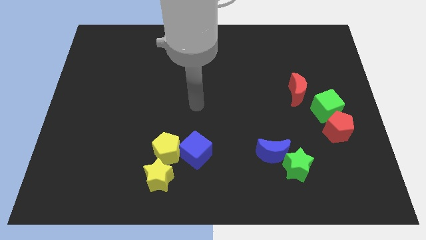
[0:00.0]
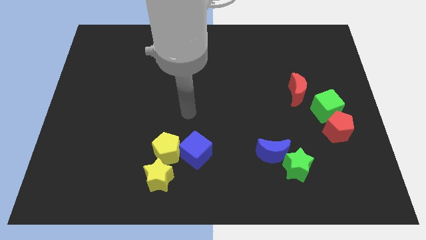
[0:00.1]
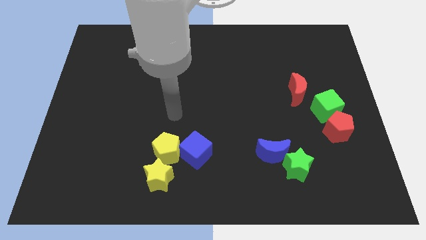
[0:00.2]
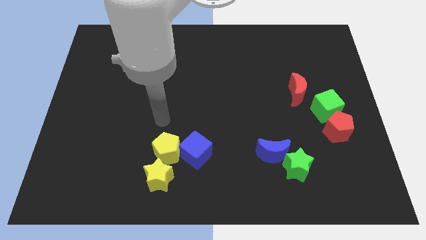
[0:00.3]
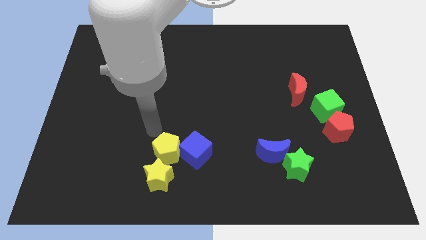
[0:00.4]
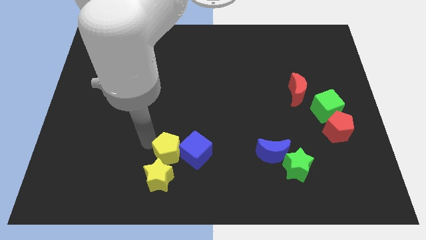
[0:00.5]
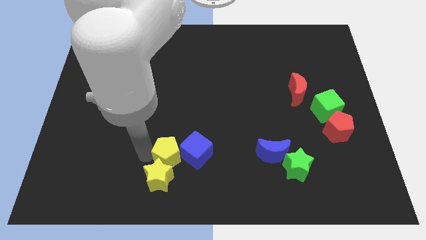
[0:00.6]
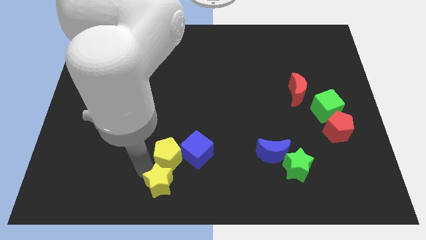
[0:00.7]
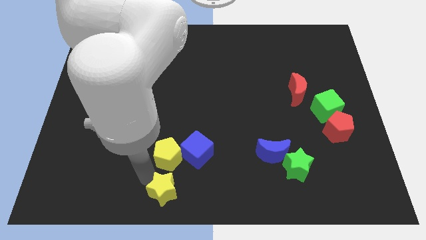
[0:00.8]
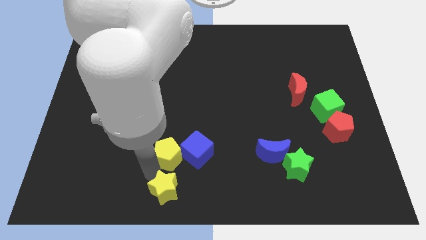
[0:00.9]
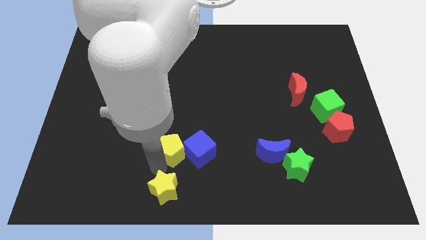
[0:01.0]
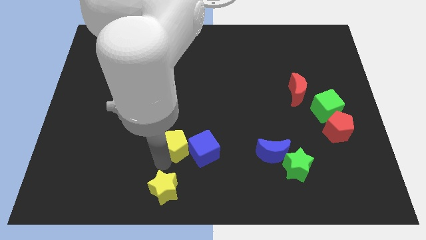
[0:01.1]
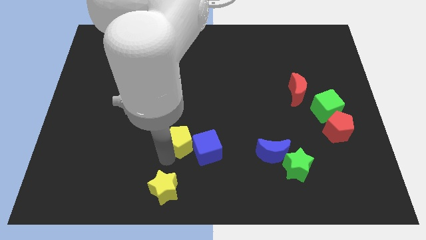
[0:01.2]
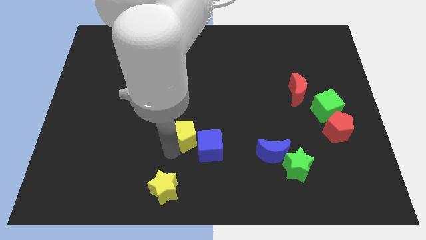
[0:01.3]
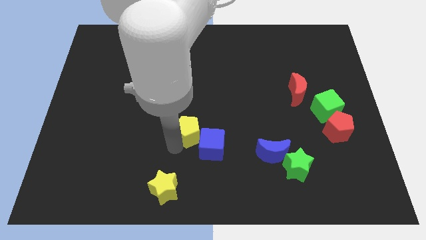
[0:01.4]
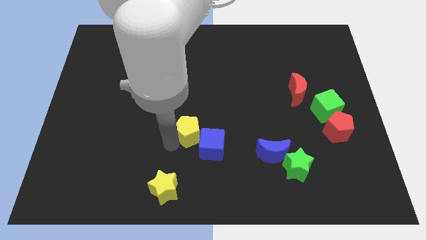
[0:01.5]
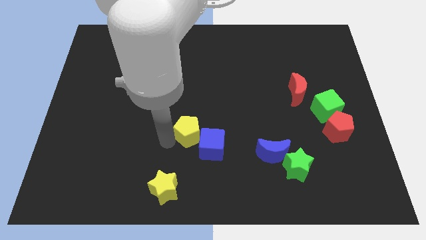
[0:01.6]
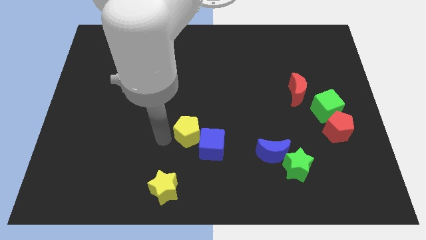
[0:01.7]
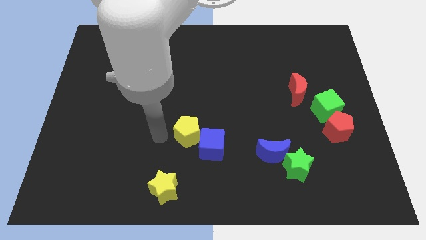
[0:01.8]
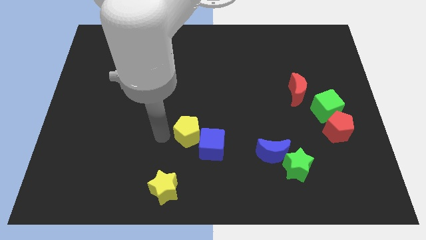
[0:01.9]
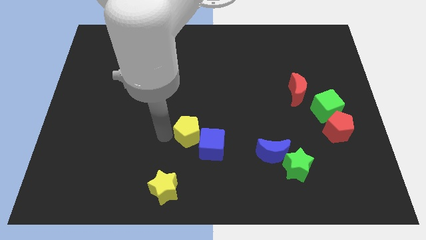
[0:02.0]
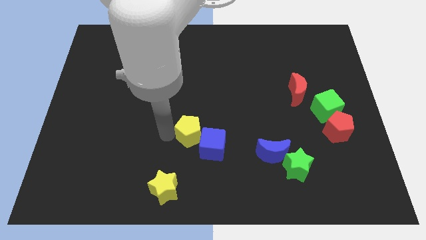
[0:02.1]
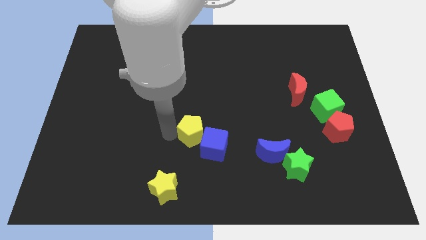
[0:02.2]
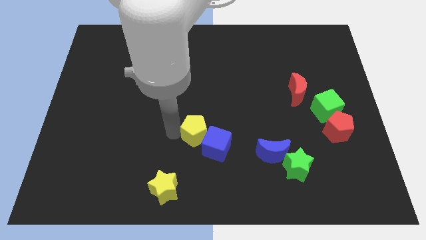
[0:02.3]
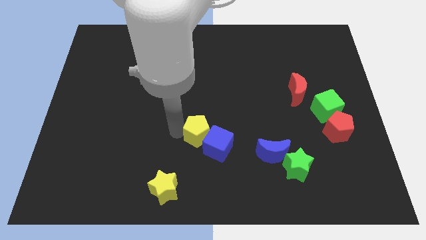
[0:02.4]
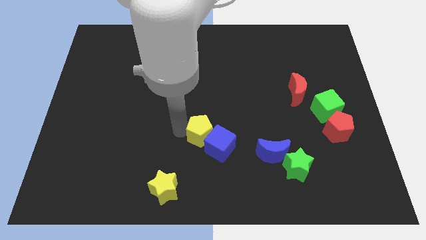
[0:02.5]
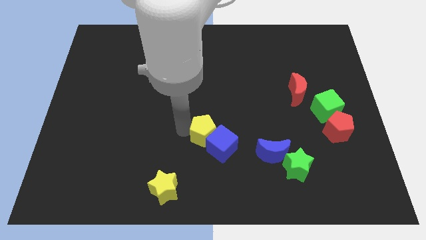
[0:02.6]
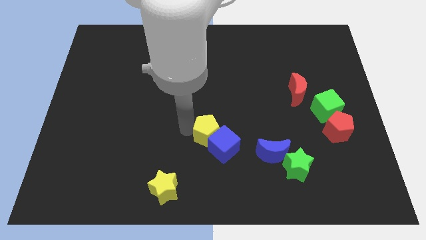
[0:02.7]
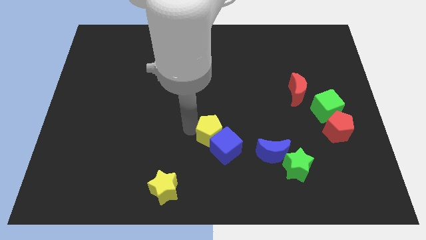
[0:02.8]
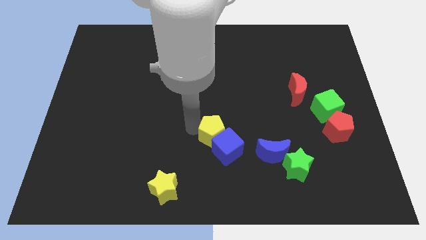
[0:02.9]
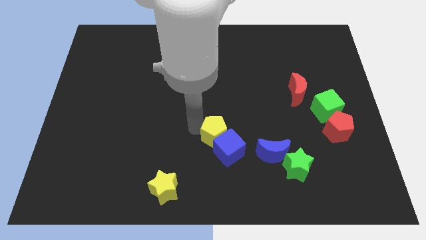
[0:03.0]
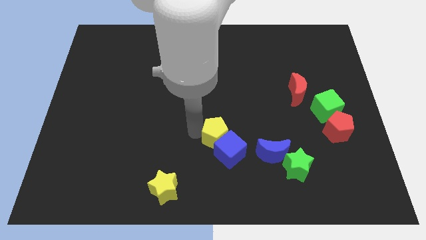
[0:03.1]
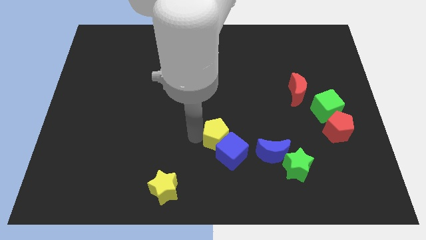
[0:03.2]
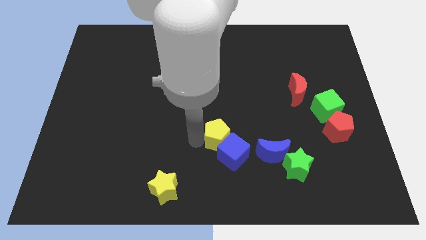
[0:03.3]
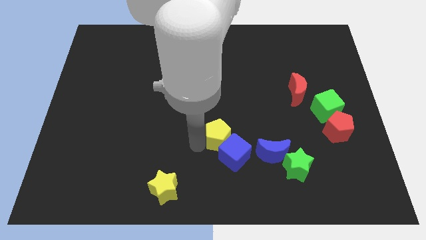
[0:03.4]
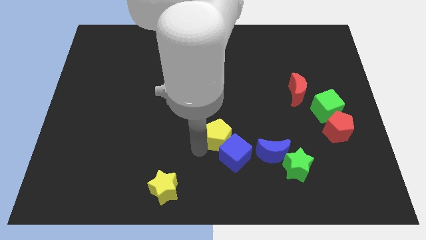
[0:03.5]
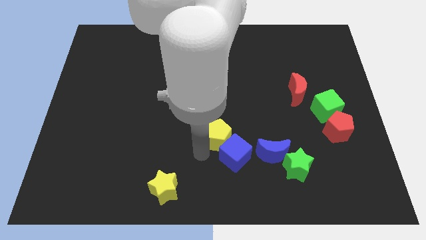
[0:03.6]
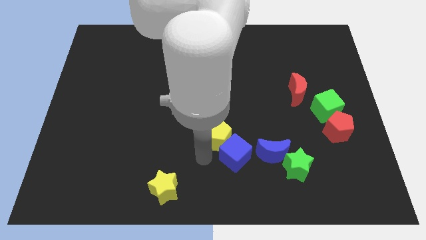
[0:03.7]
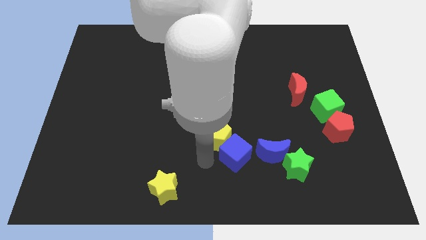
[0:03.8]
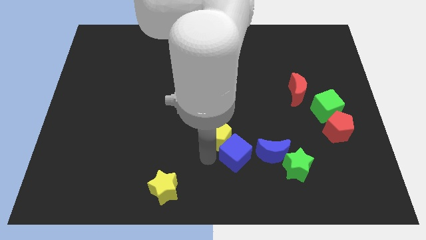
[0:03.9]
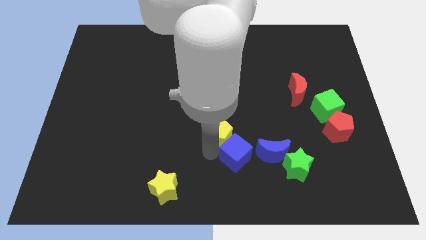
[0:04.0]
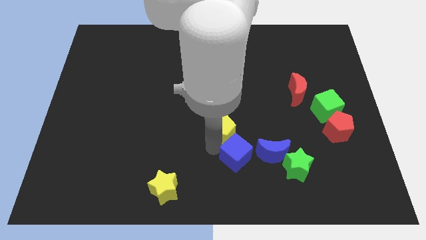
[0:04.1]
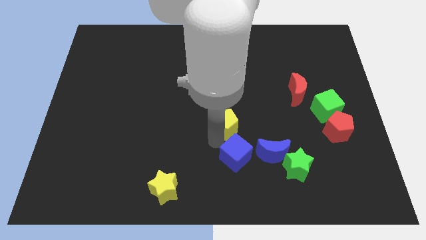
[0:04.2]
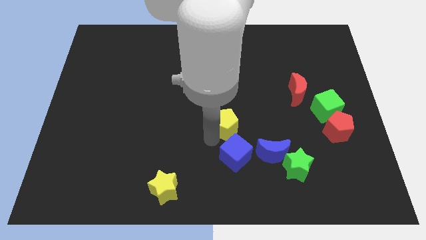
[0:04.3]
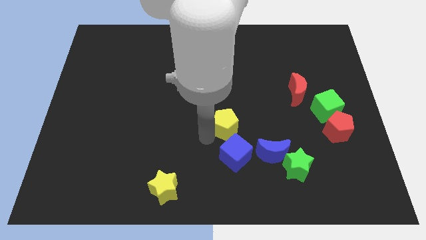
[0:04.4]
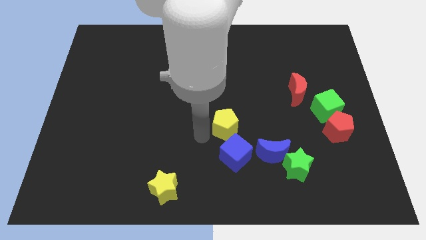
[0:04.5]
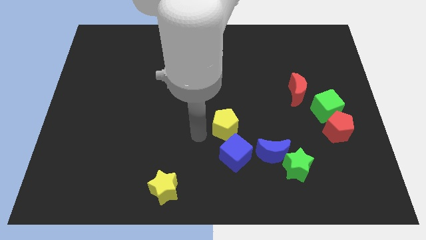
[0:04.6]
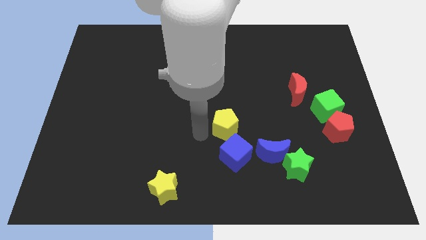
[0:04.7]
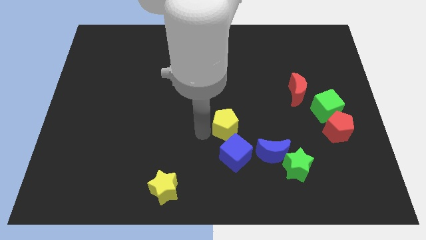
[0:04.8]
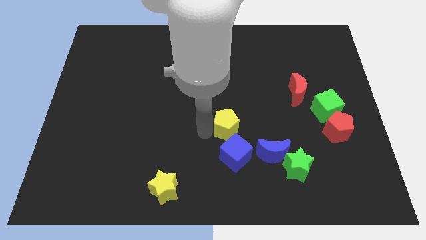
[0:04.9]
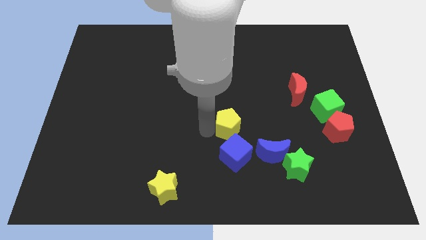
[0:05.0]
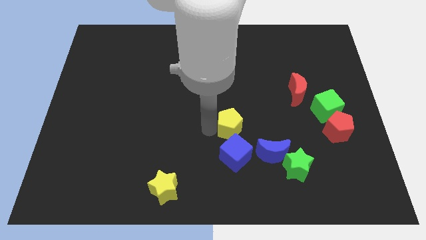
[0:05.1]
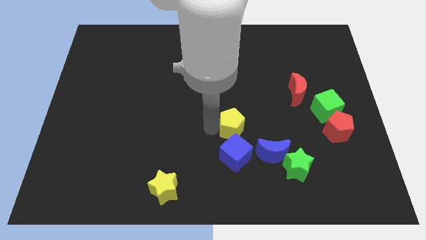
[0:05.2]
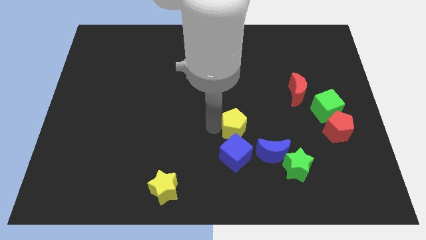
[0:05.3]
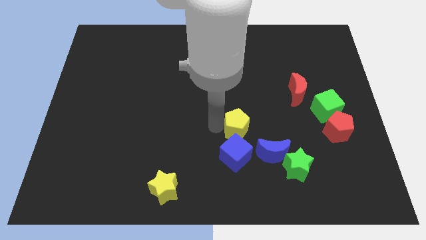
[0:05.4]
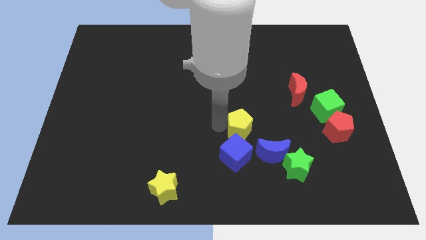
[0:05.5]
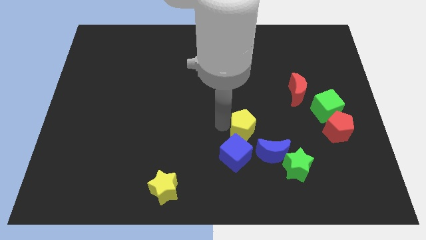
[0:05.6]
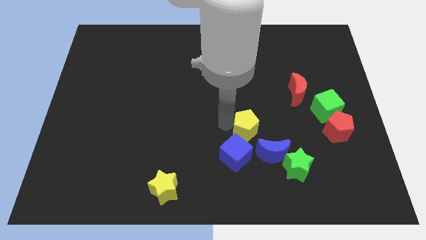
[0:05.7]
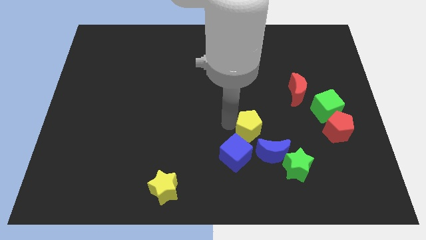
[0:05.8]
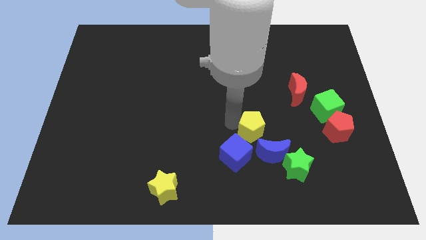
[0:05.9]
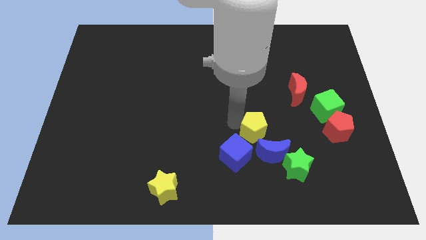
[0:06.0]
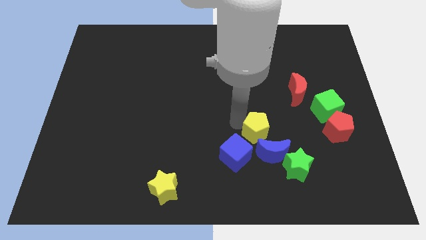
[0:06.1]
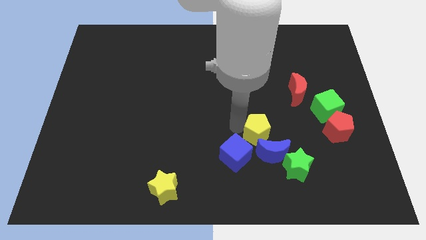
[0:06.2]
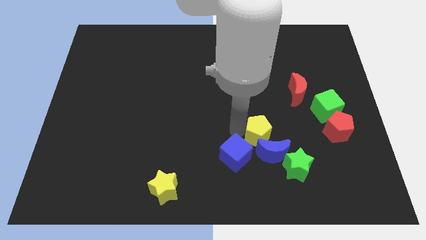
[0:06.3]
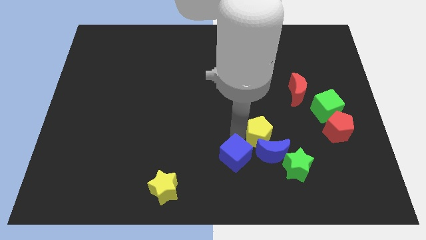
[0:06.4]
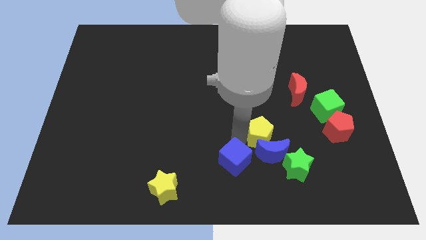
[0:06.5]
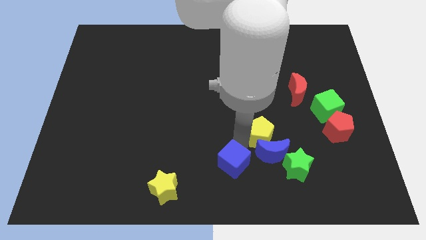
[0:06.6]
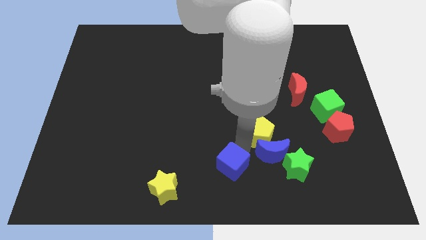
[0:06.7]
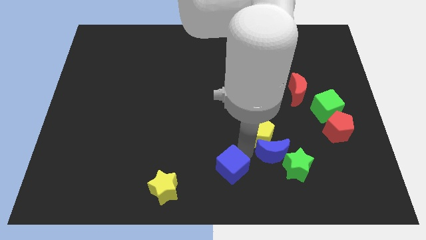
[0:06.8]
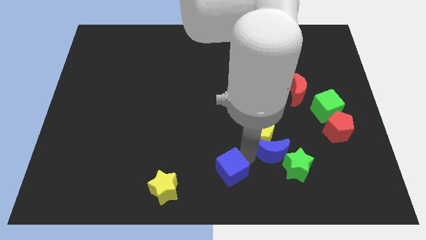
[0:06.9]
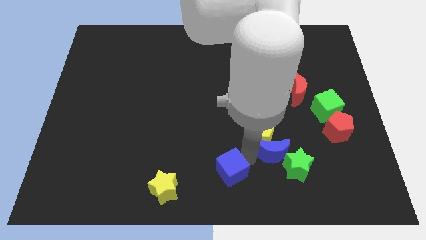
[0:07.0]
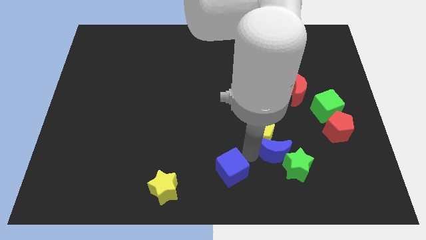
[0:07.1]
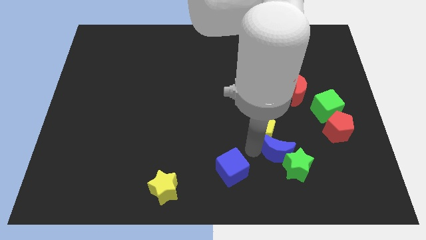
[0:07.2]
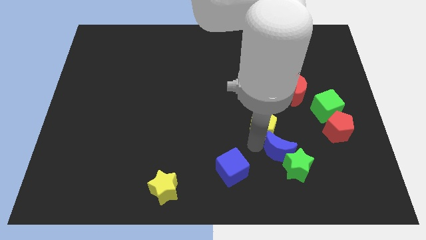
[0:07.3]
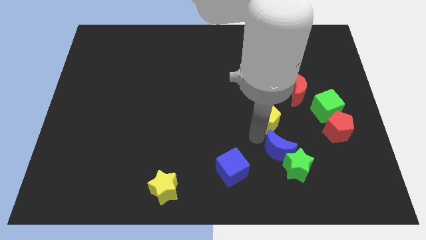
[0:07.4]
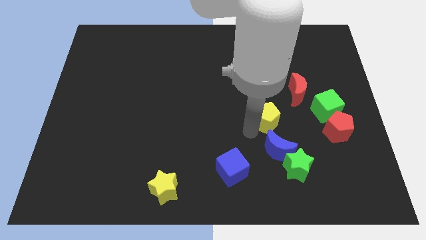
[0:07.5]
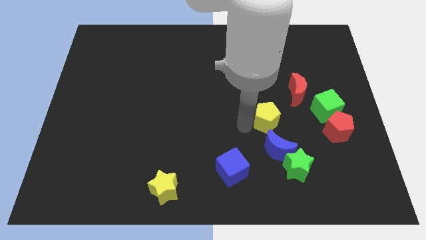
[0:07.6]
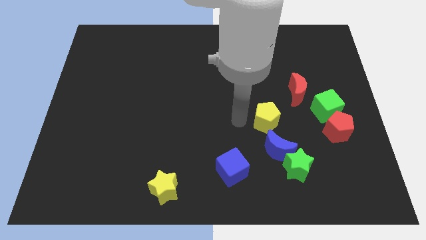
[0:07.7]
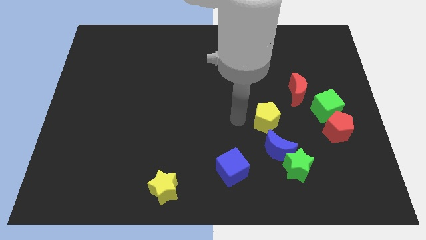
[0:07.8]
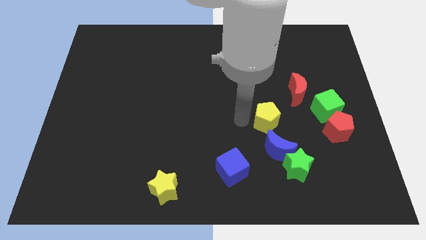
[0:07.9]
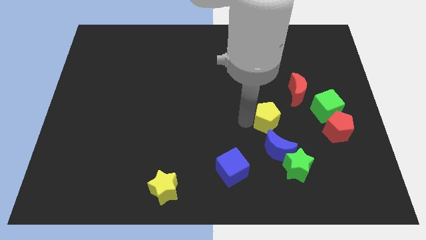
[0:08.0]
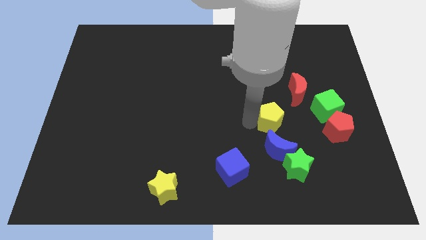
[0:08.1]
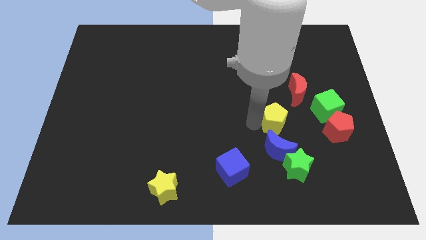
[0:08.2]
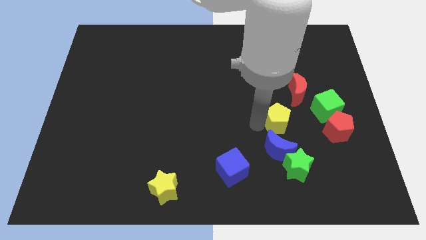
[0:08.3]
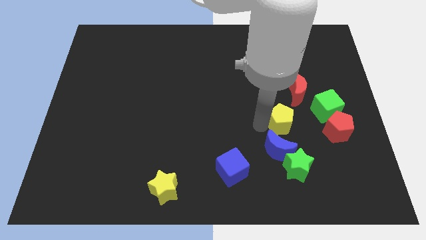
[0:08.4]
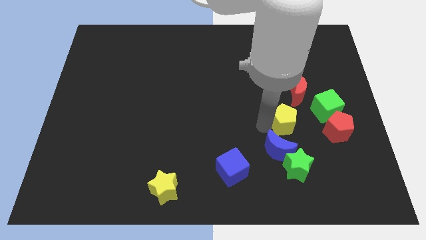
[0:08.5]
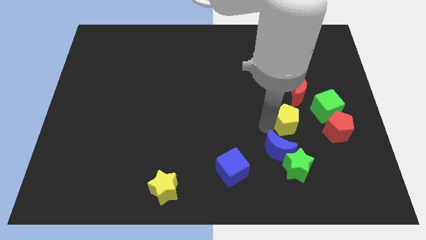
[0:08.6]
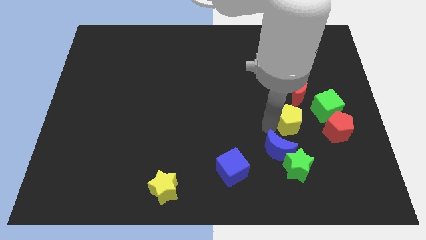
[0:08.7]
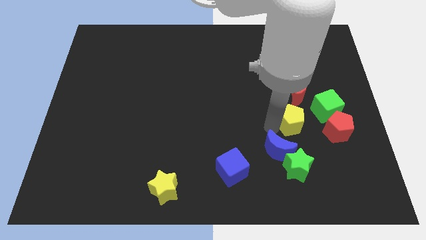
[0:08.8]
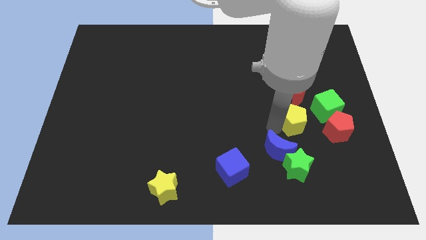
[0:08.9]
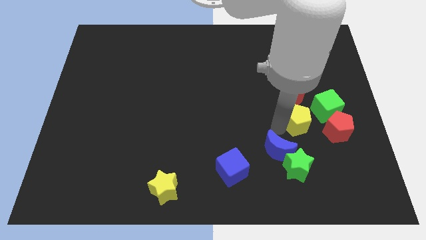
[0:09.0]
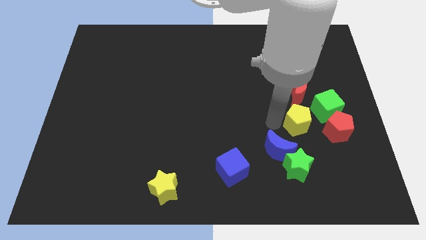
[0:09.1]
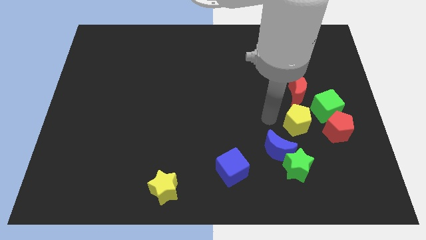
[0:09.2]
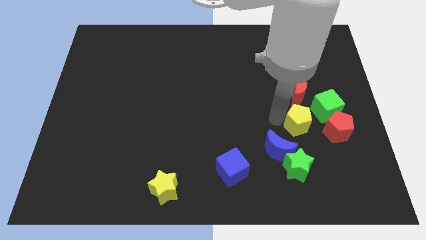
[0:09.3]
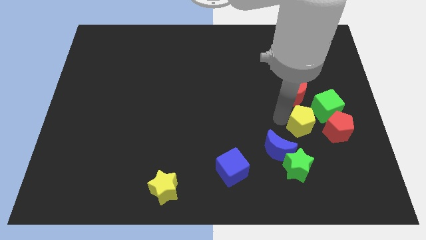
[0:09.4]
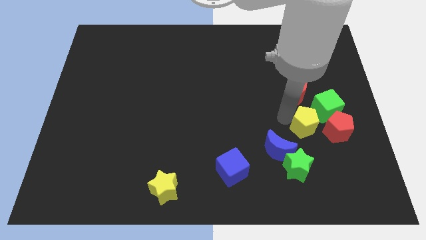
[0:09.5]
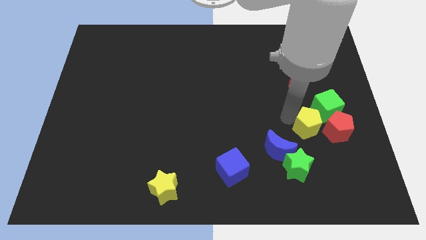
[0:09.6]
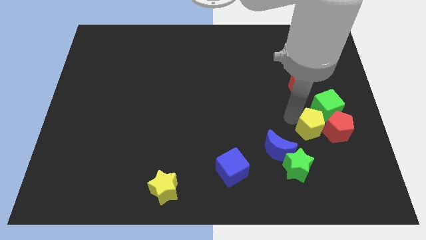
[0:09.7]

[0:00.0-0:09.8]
slide the yellow pentagon next to the red pentagon
